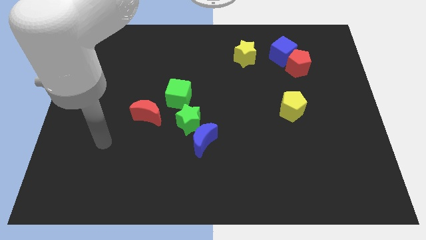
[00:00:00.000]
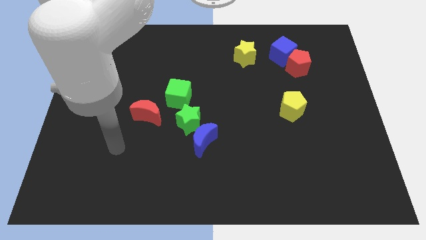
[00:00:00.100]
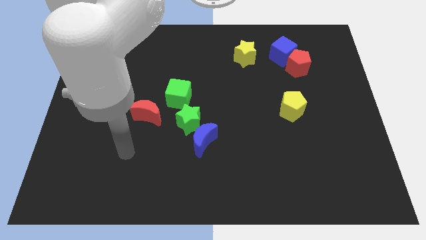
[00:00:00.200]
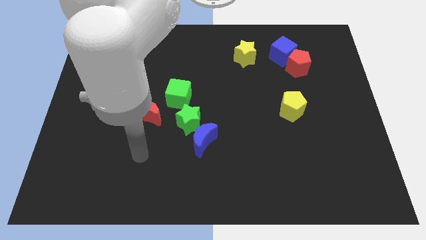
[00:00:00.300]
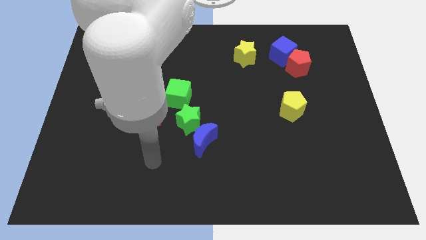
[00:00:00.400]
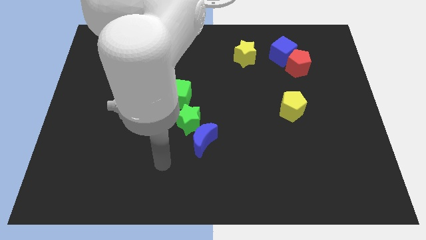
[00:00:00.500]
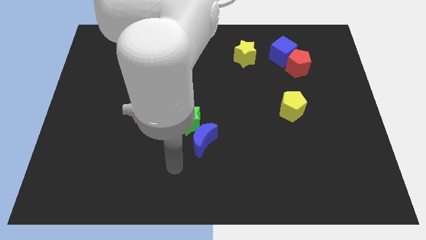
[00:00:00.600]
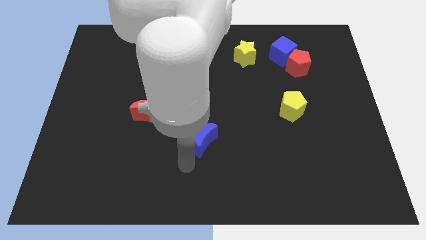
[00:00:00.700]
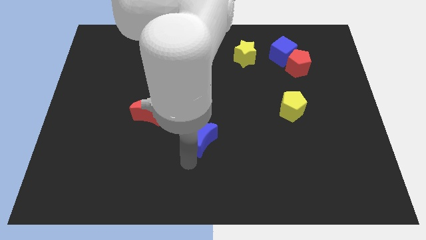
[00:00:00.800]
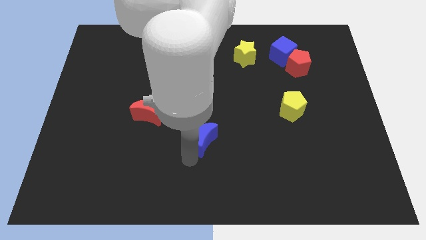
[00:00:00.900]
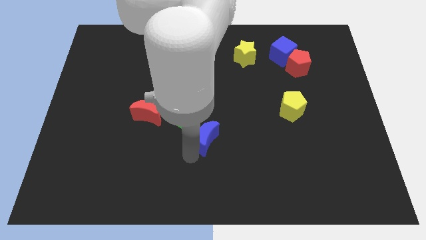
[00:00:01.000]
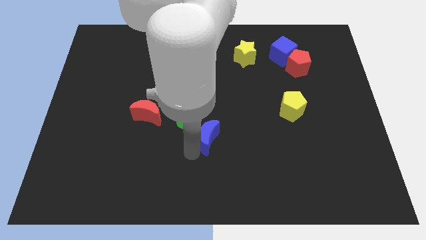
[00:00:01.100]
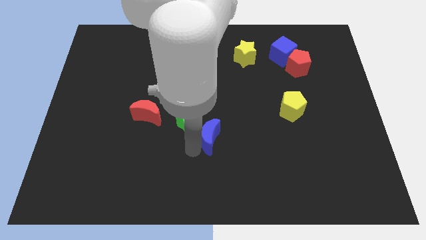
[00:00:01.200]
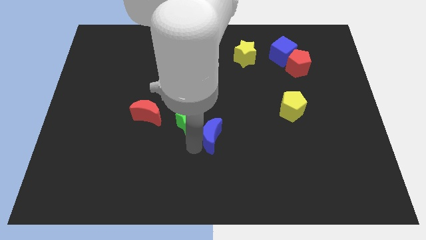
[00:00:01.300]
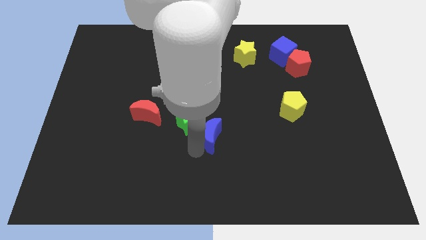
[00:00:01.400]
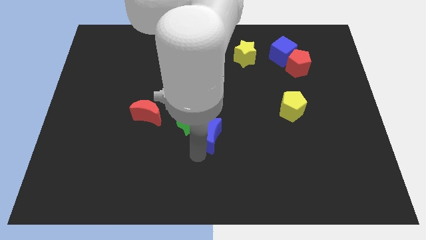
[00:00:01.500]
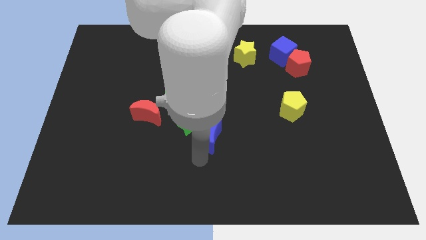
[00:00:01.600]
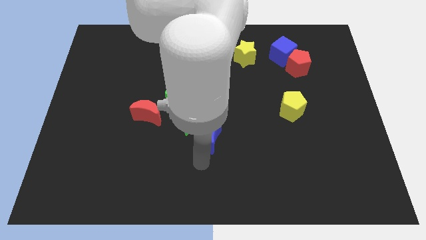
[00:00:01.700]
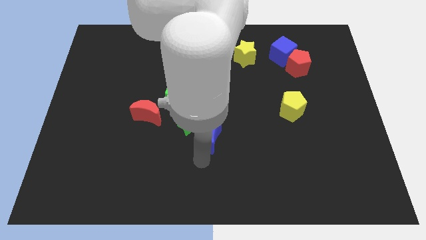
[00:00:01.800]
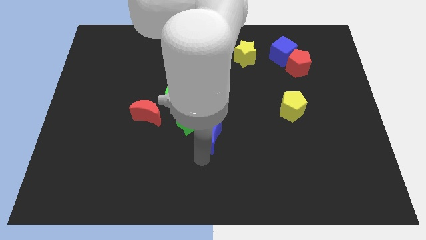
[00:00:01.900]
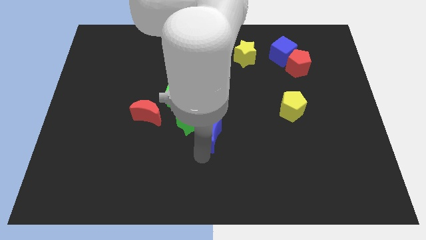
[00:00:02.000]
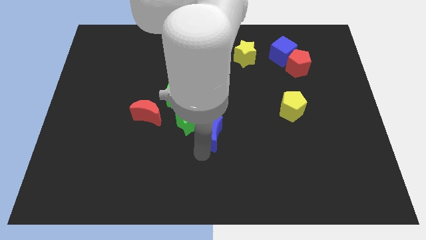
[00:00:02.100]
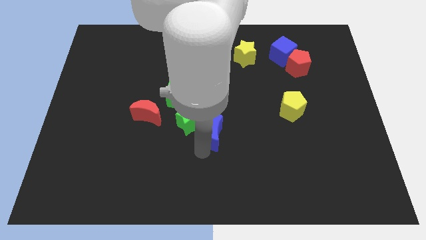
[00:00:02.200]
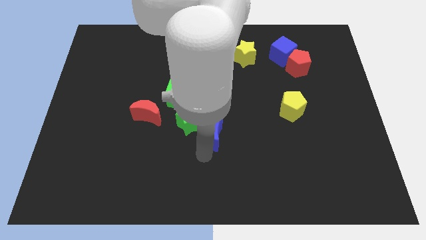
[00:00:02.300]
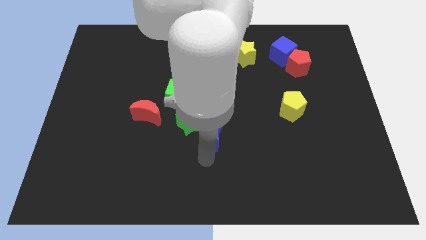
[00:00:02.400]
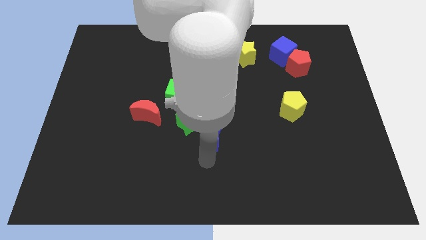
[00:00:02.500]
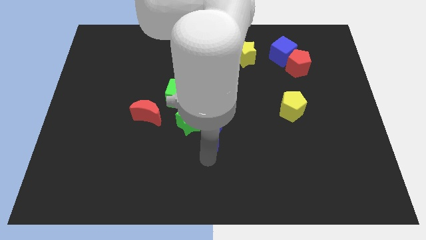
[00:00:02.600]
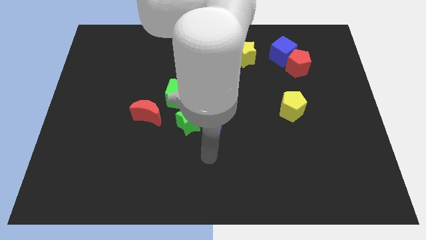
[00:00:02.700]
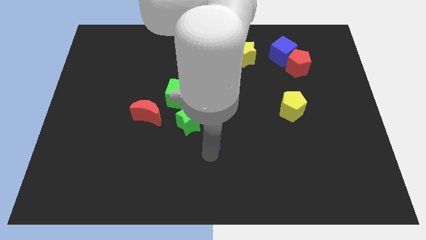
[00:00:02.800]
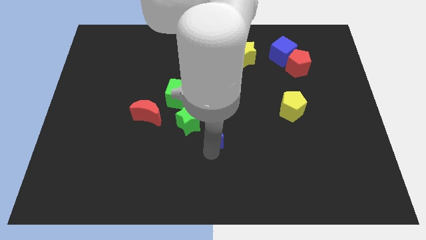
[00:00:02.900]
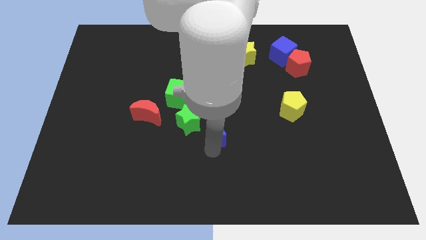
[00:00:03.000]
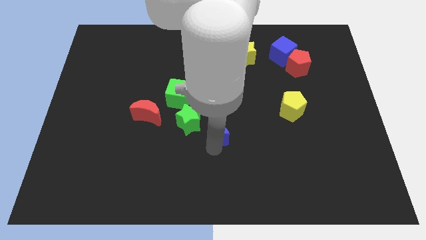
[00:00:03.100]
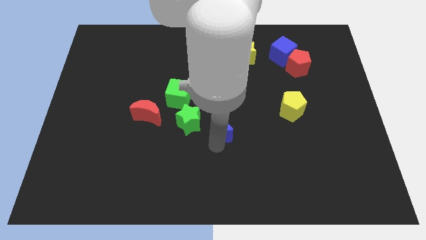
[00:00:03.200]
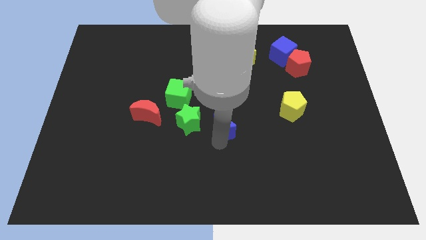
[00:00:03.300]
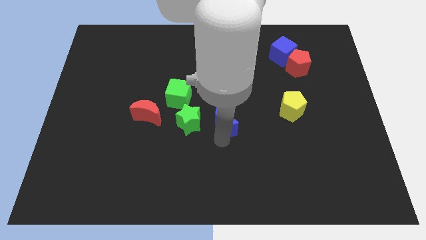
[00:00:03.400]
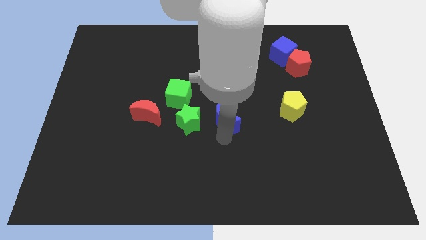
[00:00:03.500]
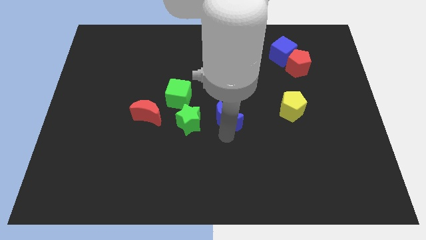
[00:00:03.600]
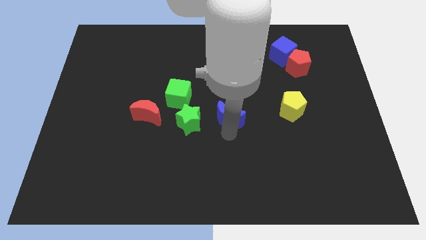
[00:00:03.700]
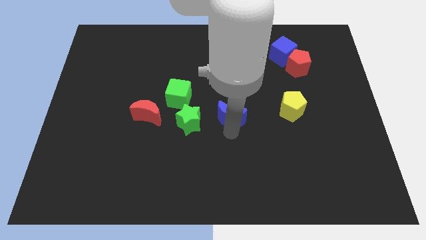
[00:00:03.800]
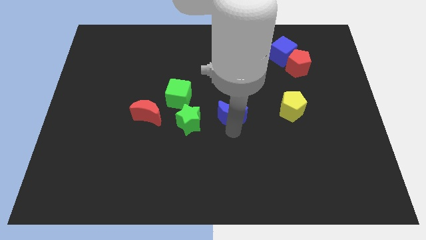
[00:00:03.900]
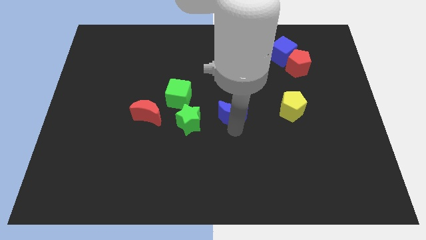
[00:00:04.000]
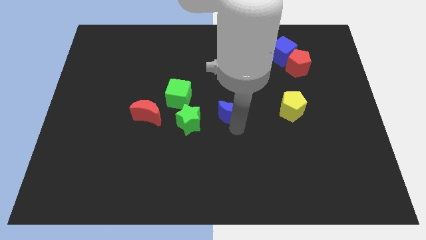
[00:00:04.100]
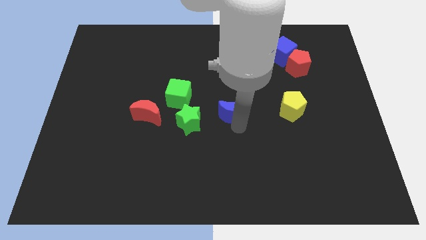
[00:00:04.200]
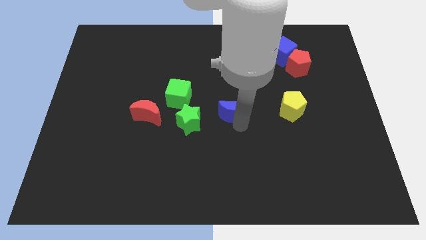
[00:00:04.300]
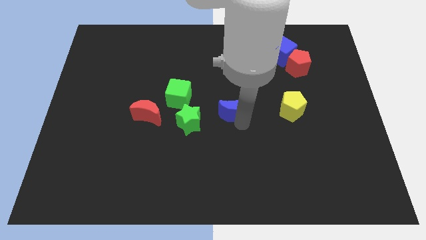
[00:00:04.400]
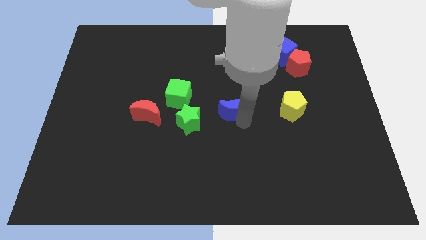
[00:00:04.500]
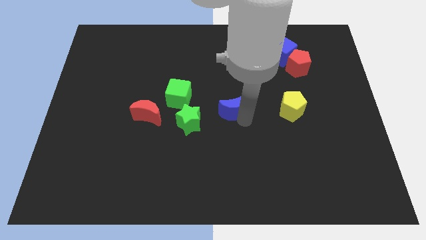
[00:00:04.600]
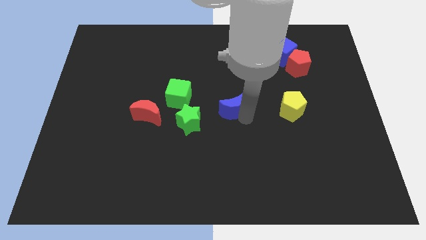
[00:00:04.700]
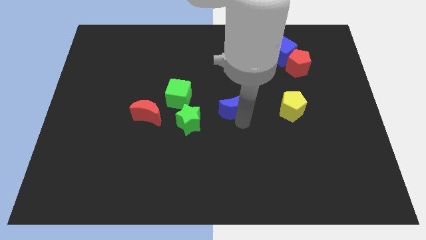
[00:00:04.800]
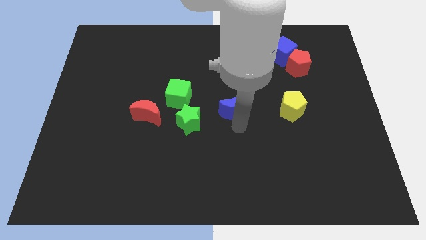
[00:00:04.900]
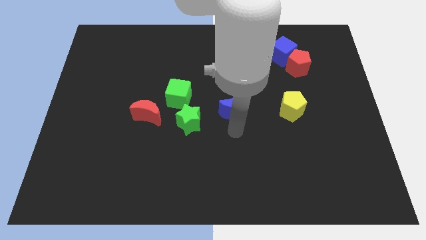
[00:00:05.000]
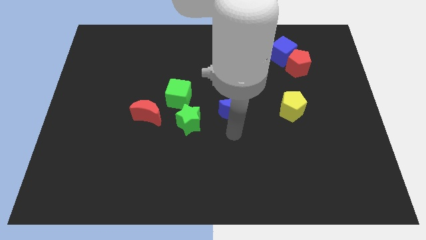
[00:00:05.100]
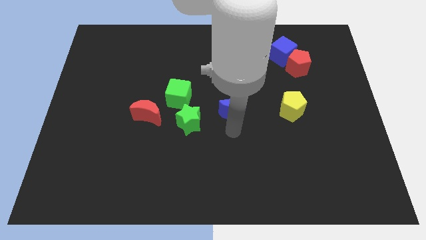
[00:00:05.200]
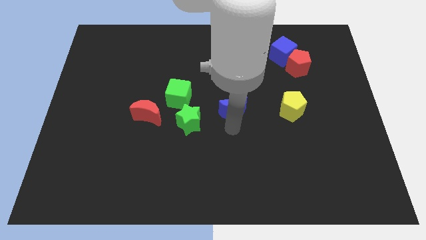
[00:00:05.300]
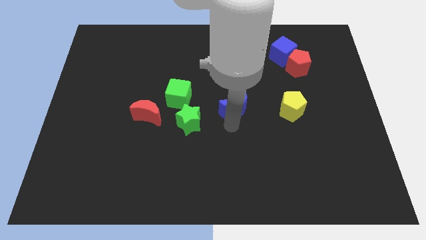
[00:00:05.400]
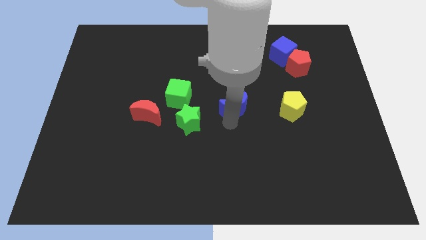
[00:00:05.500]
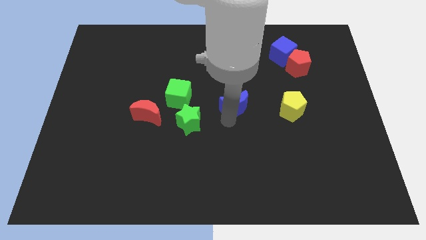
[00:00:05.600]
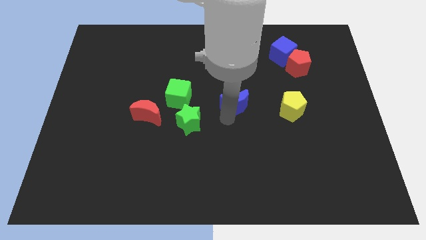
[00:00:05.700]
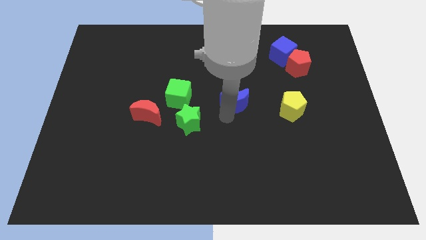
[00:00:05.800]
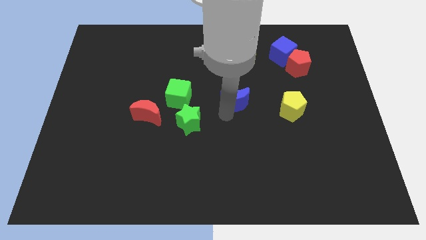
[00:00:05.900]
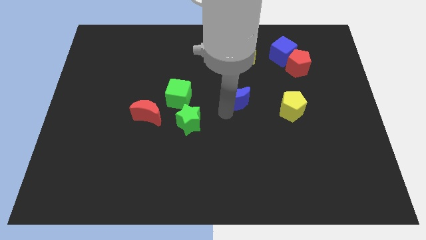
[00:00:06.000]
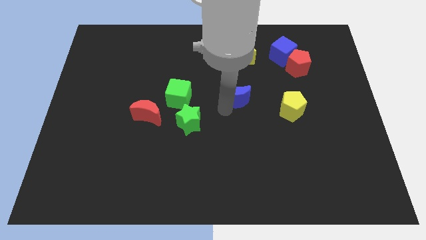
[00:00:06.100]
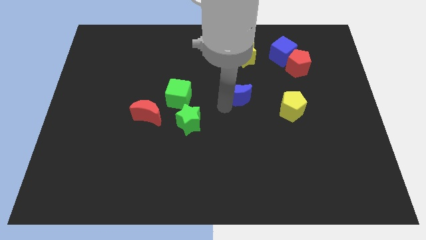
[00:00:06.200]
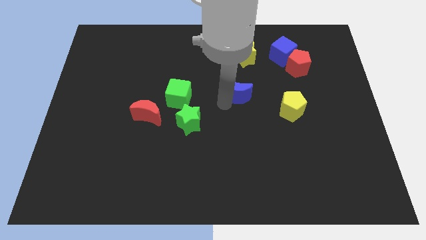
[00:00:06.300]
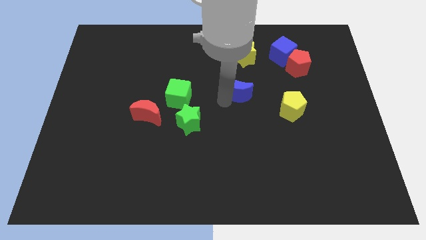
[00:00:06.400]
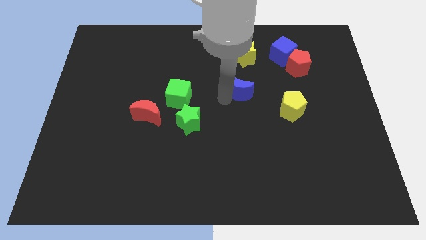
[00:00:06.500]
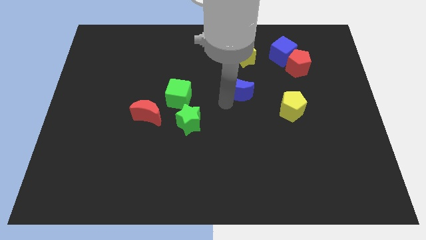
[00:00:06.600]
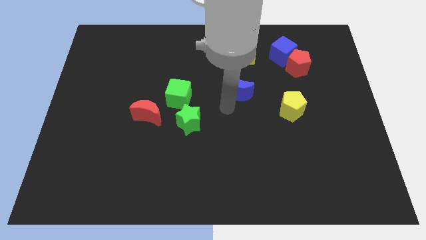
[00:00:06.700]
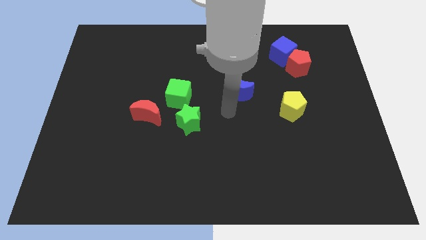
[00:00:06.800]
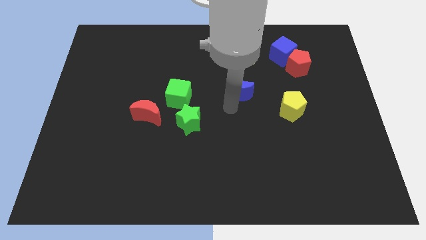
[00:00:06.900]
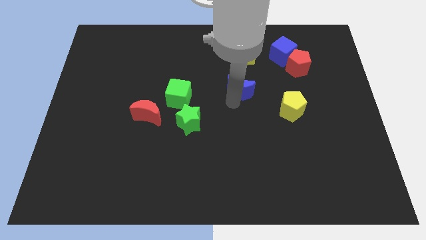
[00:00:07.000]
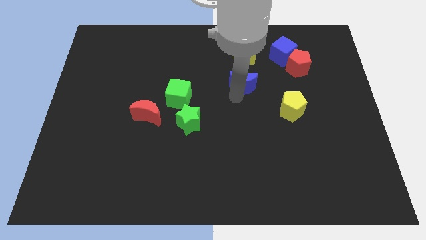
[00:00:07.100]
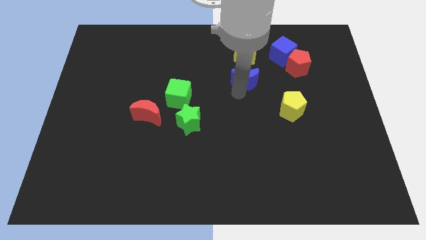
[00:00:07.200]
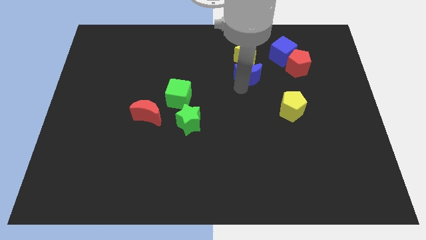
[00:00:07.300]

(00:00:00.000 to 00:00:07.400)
put the blue moon to the left side of the red pentagon
